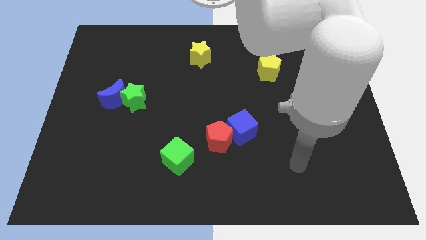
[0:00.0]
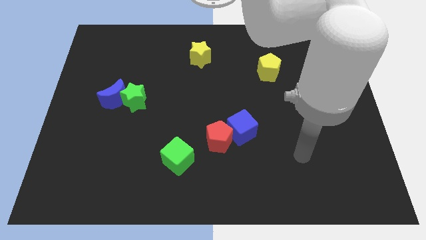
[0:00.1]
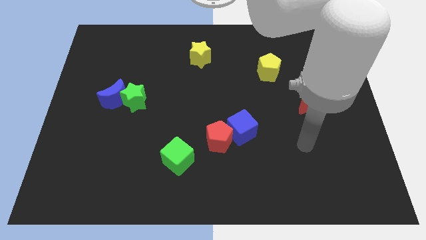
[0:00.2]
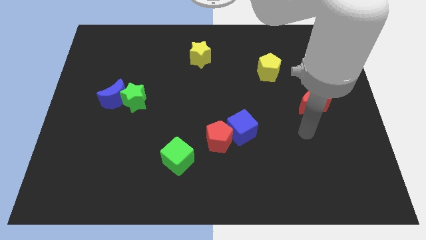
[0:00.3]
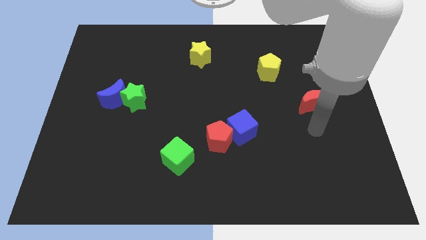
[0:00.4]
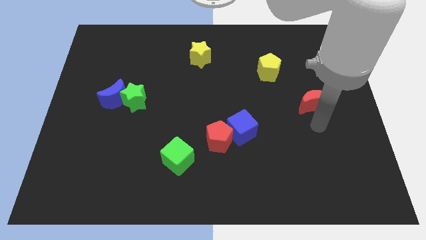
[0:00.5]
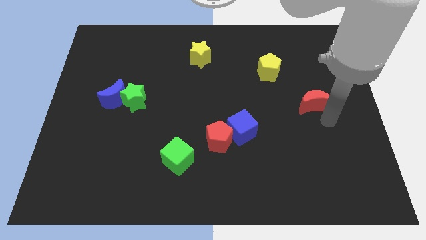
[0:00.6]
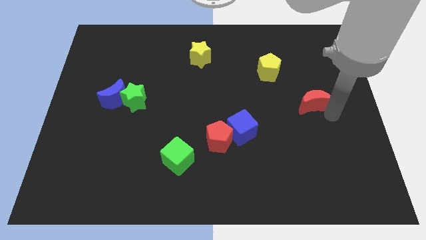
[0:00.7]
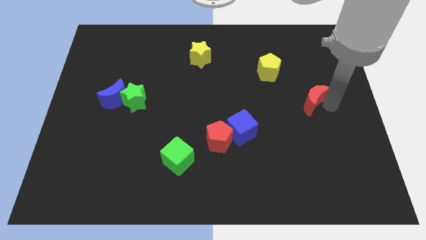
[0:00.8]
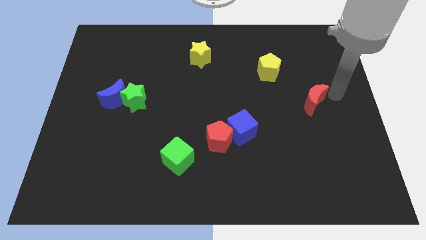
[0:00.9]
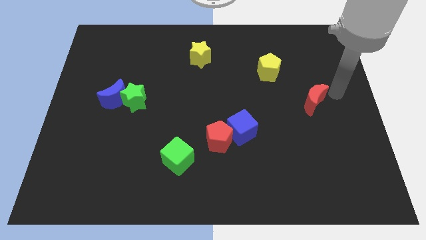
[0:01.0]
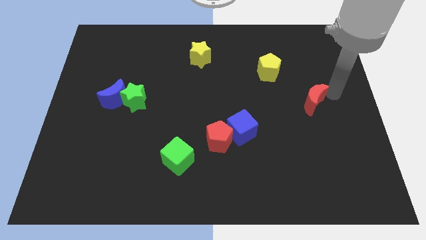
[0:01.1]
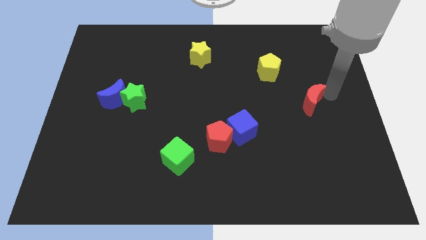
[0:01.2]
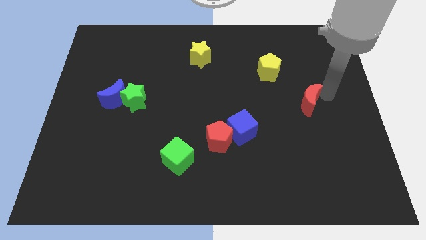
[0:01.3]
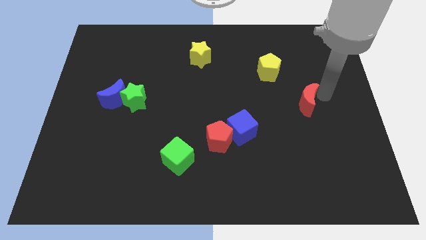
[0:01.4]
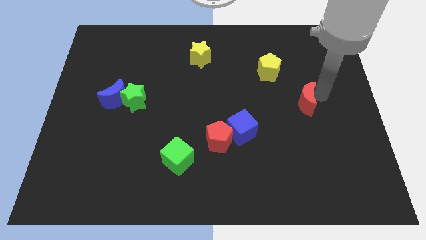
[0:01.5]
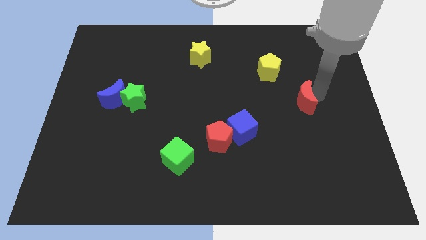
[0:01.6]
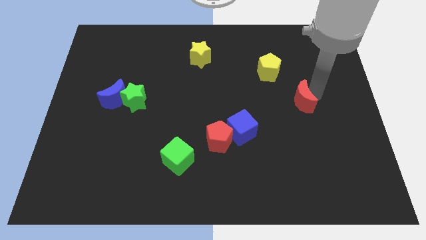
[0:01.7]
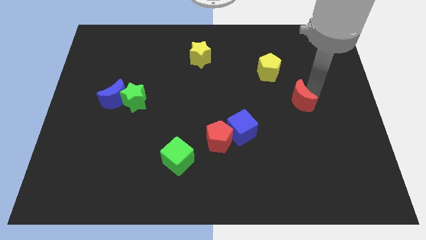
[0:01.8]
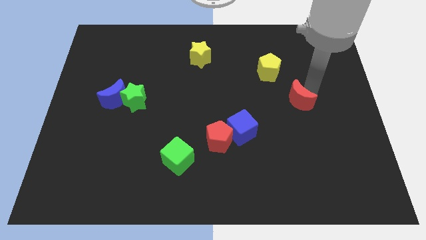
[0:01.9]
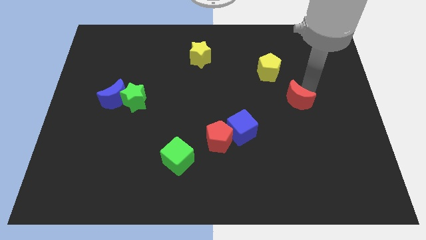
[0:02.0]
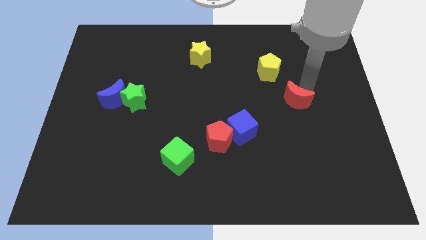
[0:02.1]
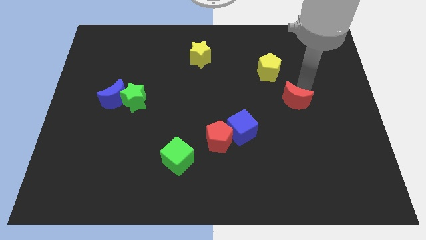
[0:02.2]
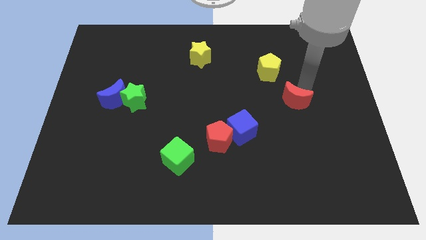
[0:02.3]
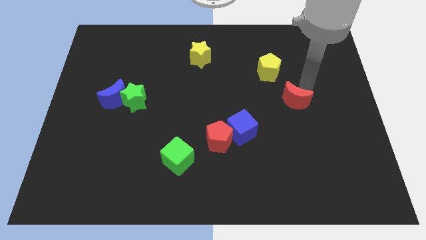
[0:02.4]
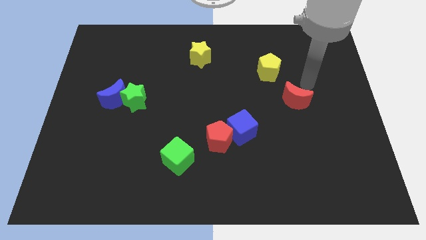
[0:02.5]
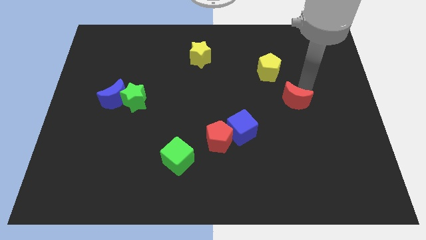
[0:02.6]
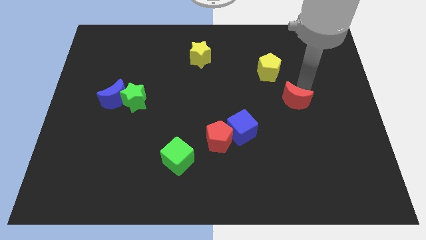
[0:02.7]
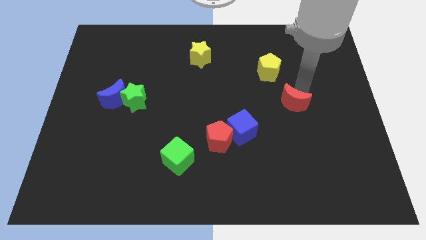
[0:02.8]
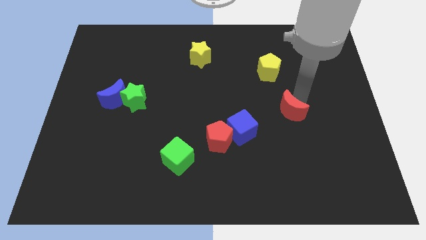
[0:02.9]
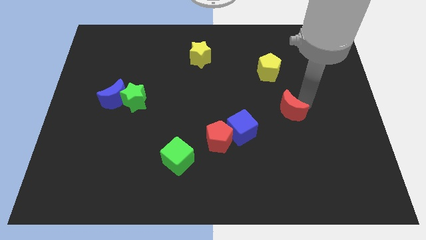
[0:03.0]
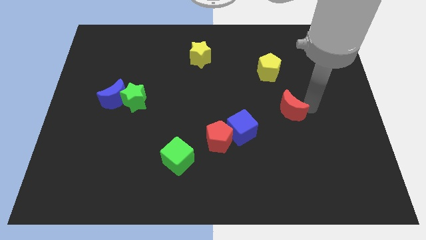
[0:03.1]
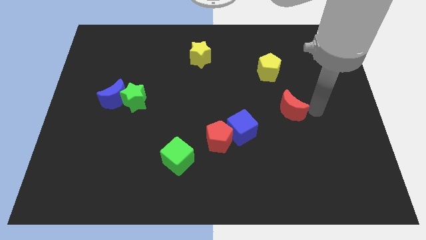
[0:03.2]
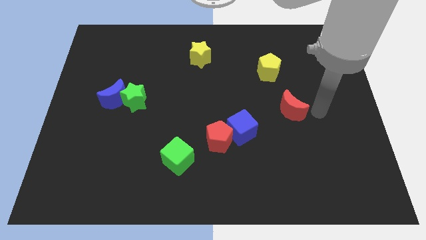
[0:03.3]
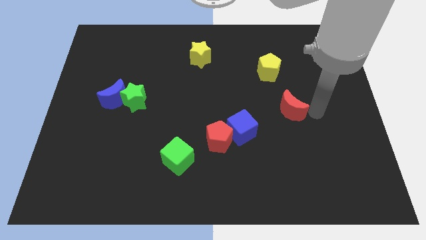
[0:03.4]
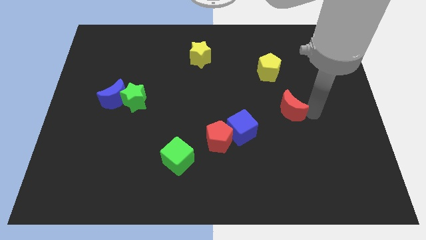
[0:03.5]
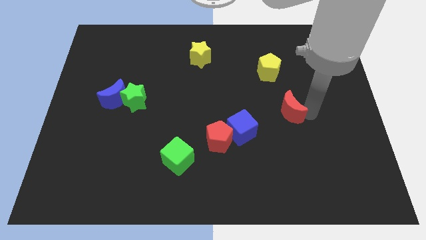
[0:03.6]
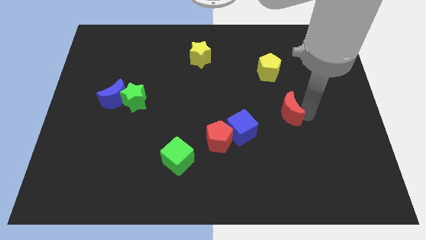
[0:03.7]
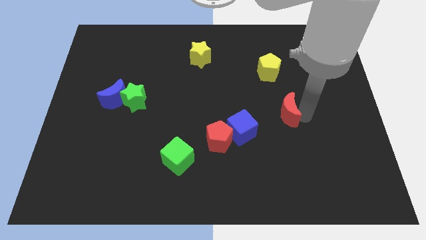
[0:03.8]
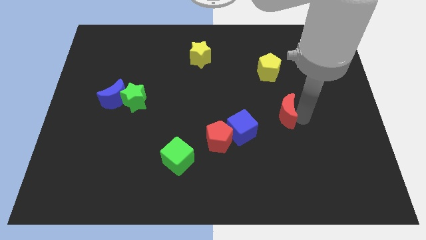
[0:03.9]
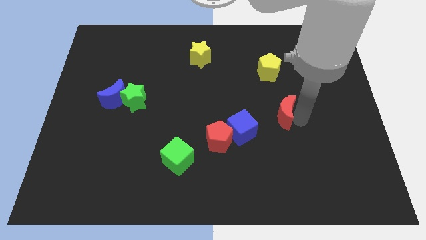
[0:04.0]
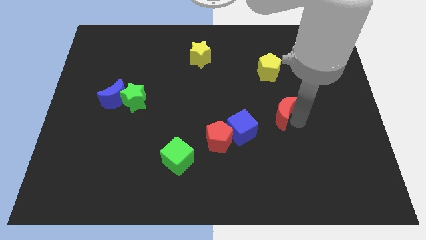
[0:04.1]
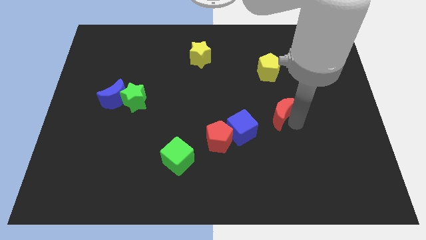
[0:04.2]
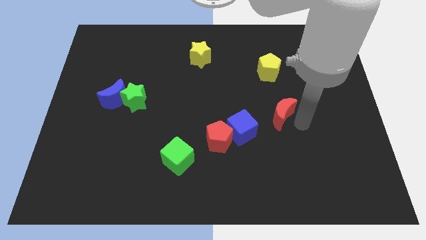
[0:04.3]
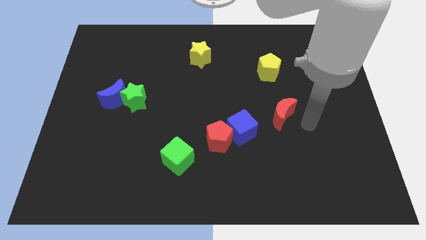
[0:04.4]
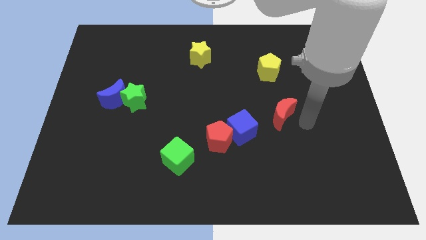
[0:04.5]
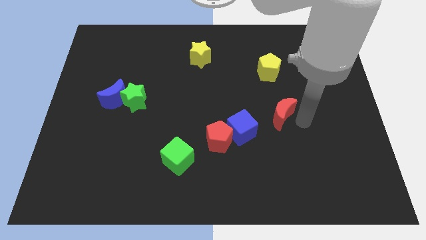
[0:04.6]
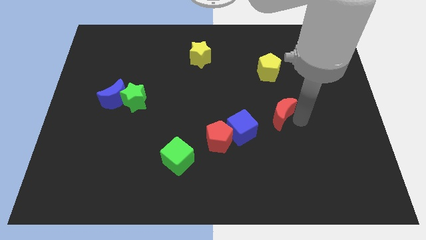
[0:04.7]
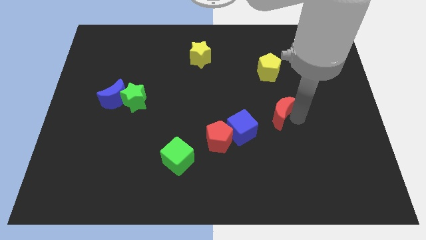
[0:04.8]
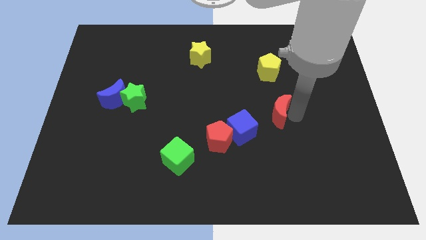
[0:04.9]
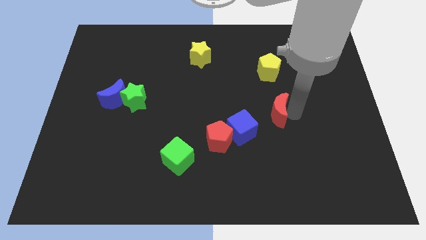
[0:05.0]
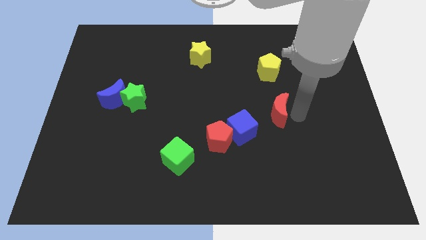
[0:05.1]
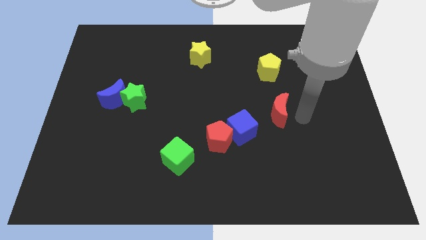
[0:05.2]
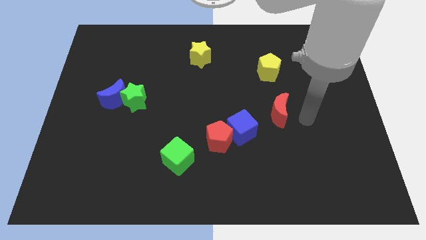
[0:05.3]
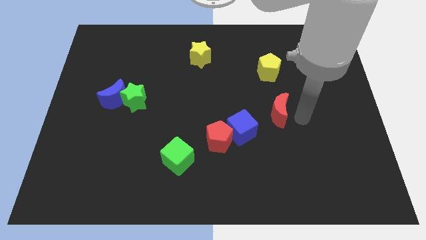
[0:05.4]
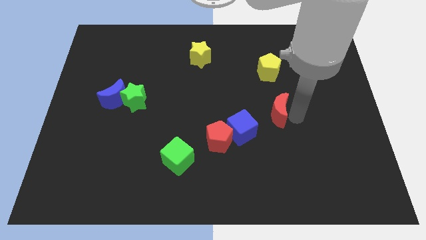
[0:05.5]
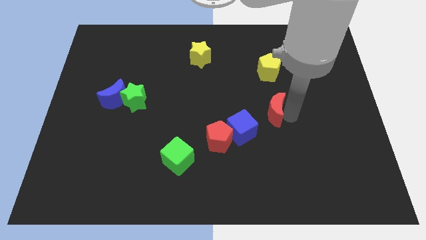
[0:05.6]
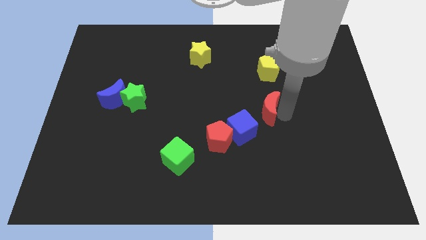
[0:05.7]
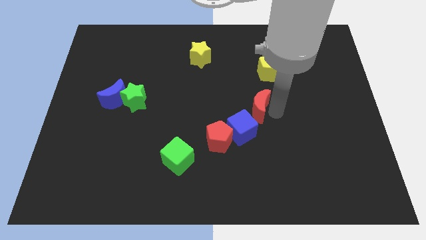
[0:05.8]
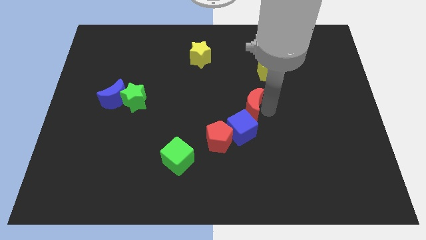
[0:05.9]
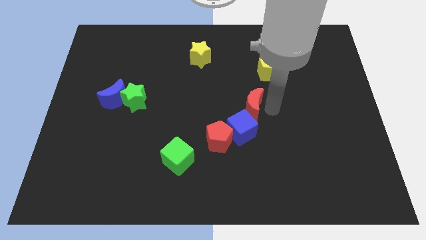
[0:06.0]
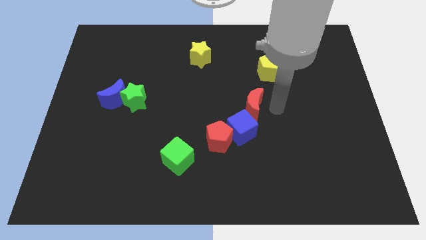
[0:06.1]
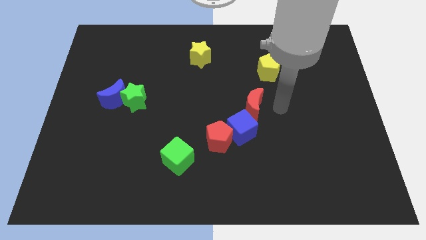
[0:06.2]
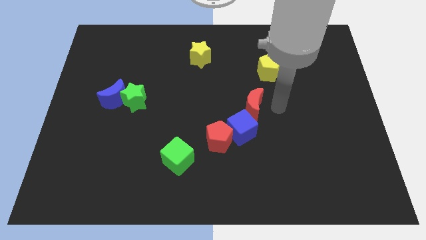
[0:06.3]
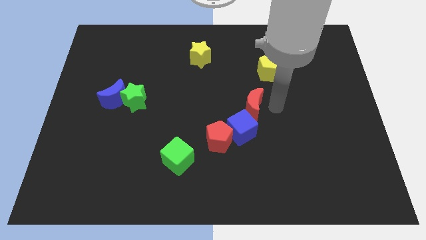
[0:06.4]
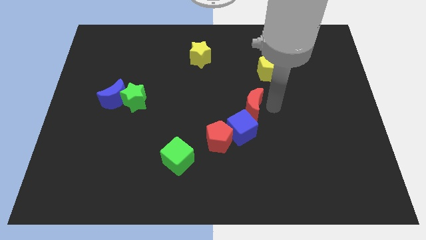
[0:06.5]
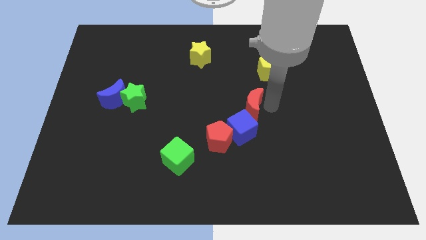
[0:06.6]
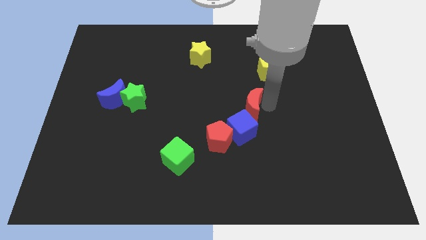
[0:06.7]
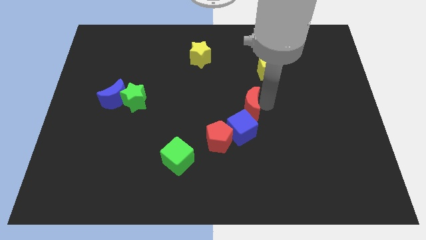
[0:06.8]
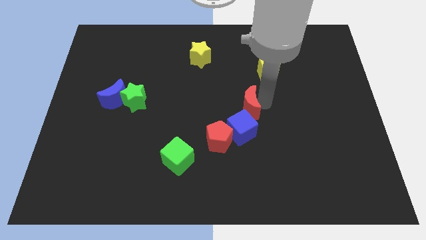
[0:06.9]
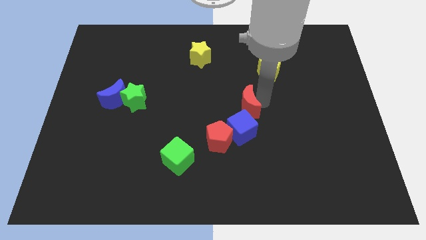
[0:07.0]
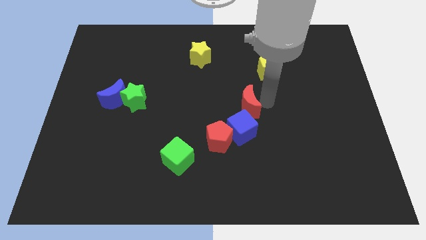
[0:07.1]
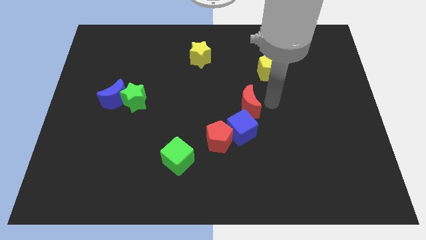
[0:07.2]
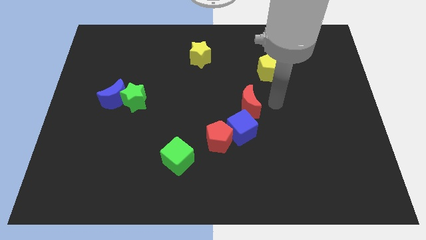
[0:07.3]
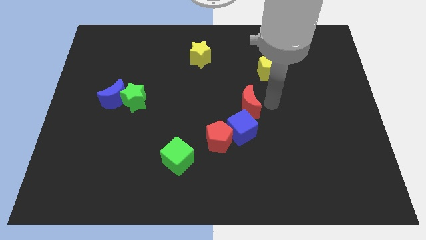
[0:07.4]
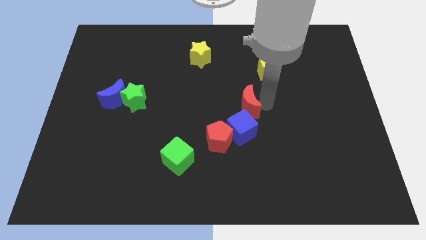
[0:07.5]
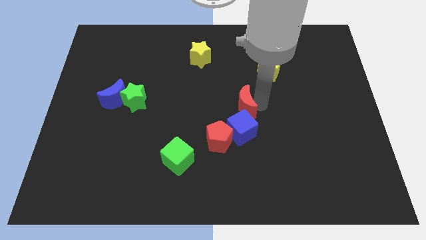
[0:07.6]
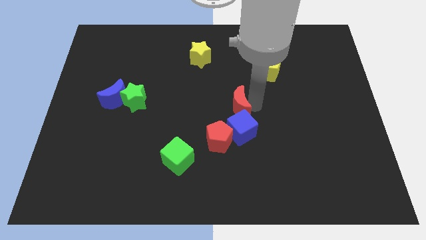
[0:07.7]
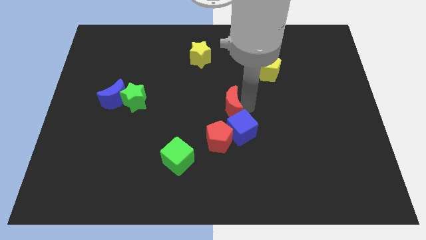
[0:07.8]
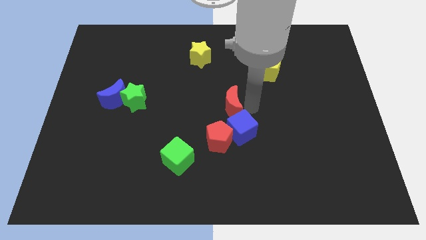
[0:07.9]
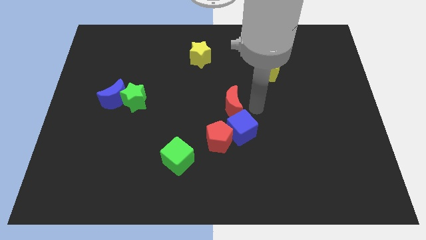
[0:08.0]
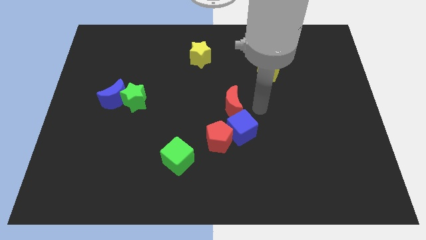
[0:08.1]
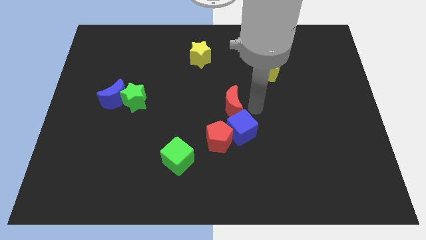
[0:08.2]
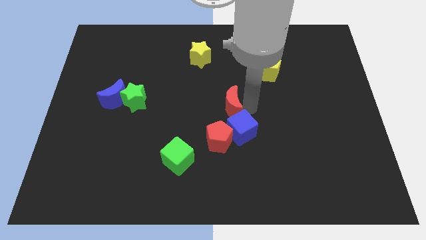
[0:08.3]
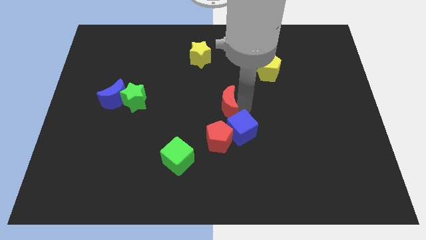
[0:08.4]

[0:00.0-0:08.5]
slide the red moon left

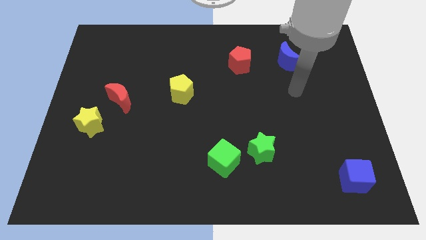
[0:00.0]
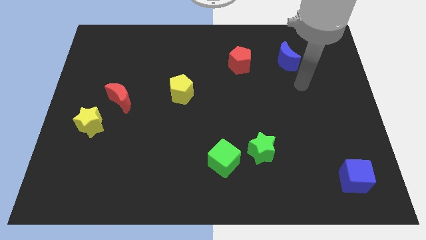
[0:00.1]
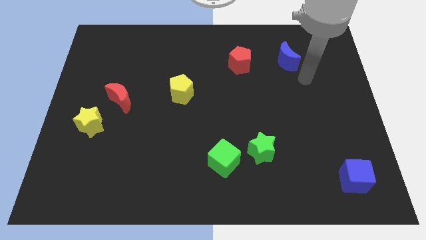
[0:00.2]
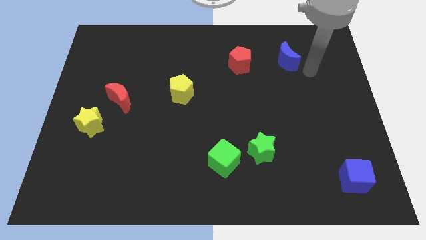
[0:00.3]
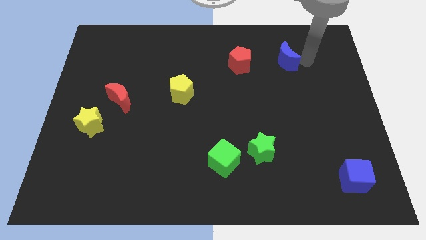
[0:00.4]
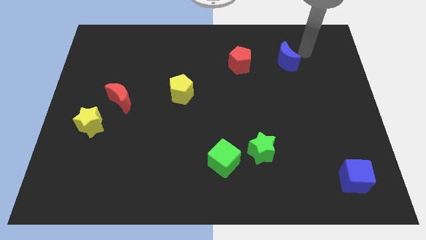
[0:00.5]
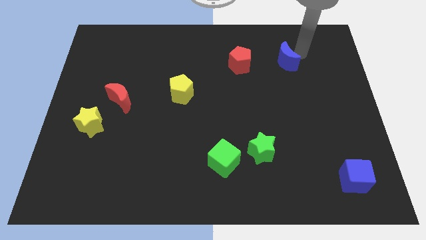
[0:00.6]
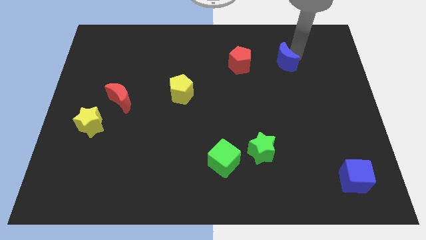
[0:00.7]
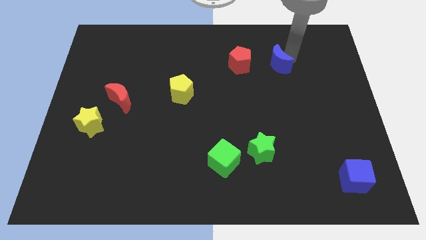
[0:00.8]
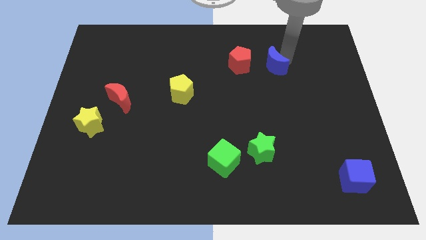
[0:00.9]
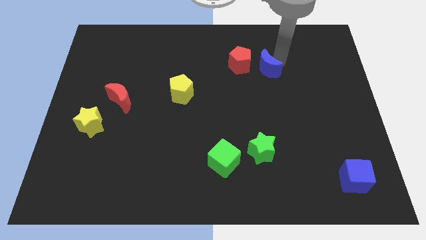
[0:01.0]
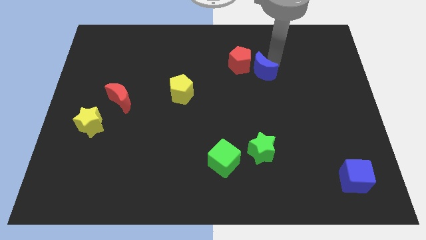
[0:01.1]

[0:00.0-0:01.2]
push the blue moon somewhat down and then left
